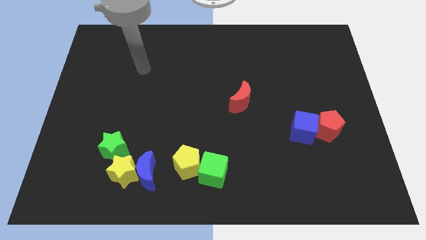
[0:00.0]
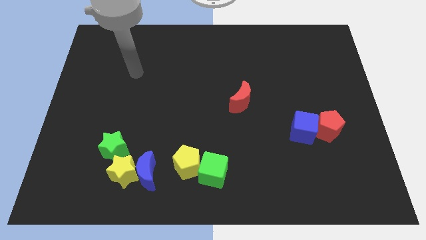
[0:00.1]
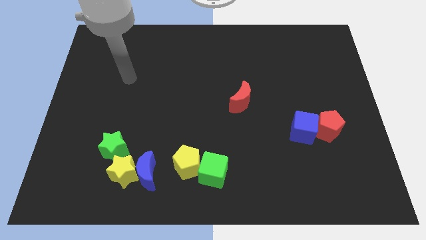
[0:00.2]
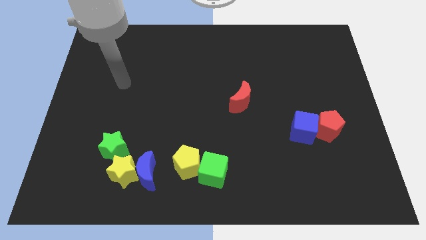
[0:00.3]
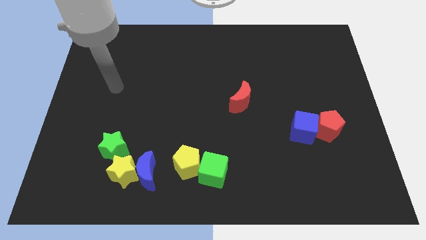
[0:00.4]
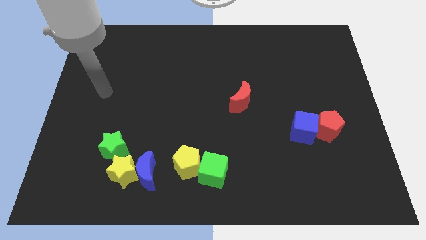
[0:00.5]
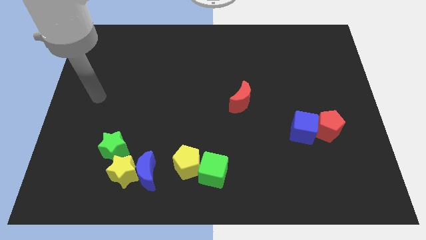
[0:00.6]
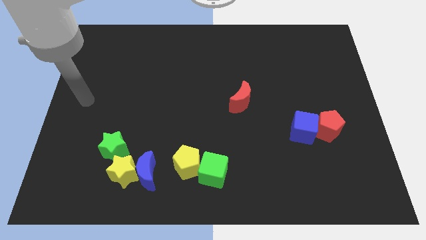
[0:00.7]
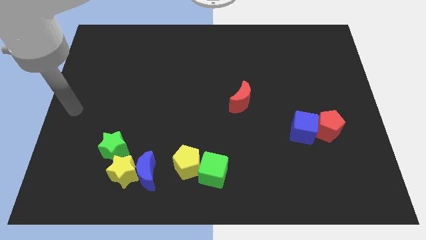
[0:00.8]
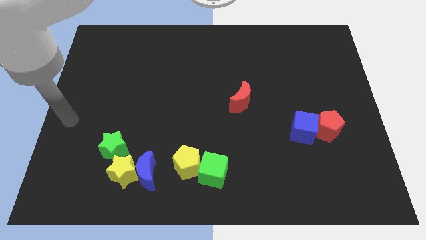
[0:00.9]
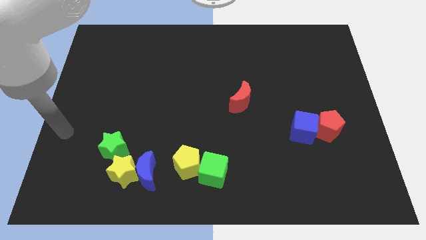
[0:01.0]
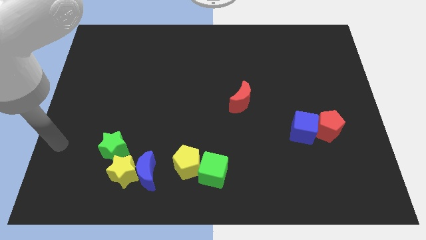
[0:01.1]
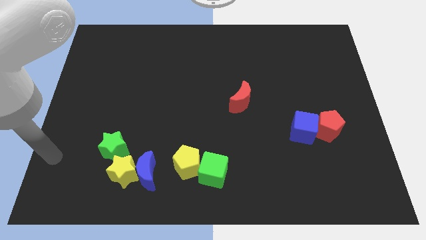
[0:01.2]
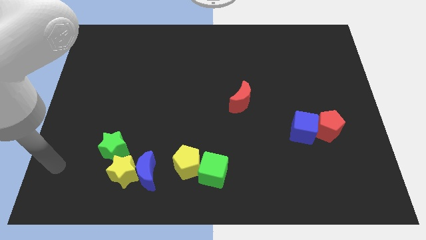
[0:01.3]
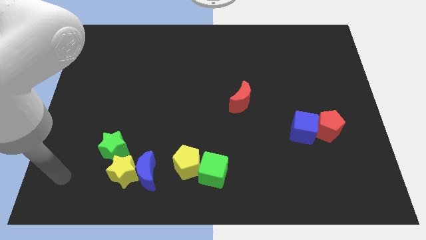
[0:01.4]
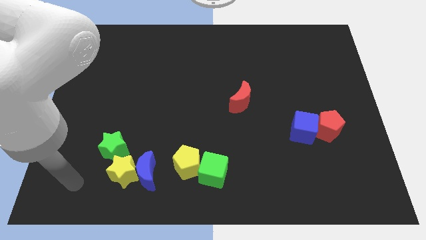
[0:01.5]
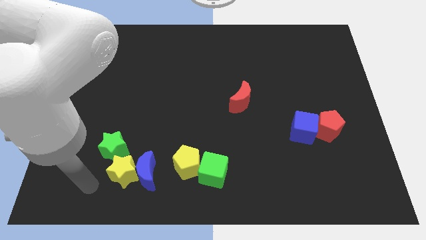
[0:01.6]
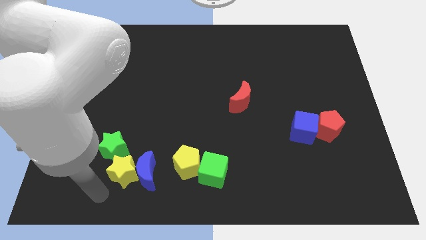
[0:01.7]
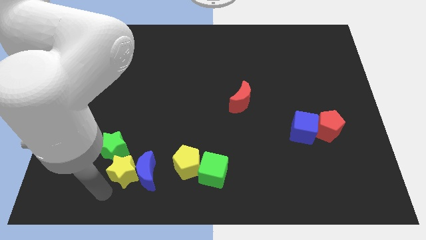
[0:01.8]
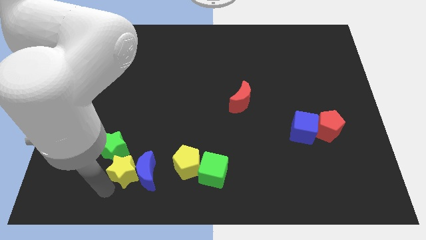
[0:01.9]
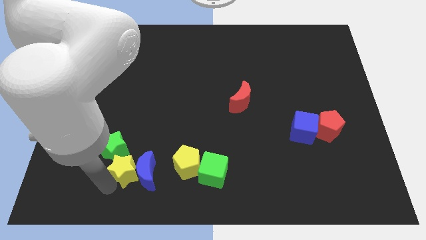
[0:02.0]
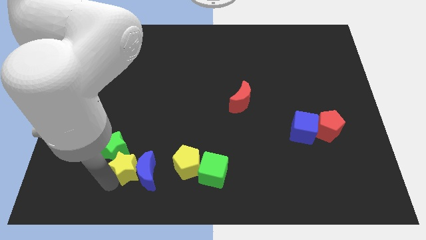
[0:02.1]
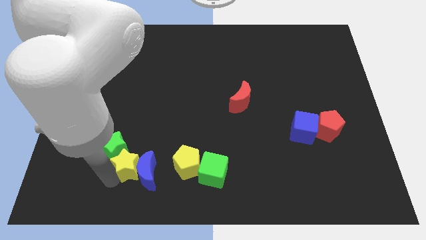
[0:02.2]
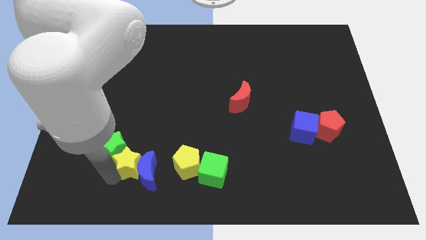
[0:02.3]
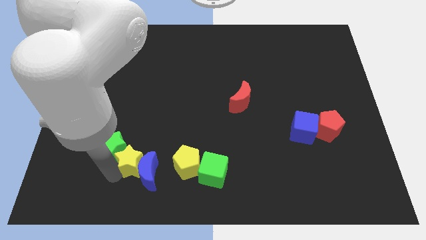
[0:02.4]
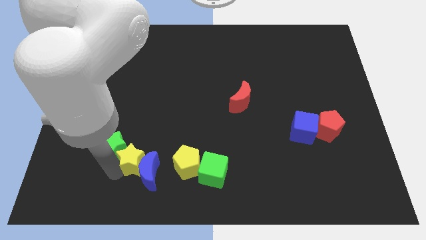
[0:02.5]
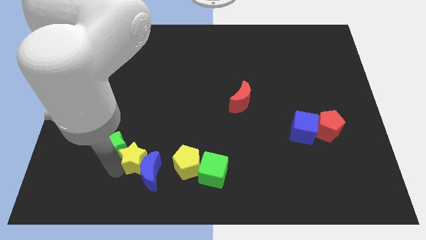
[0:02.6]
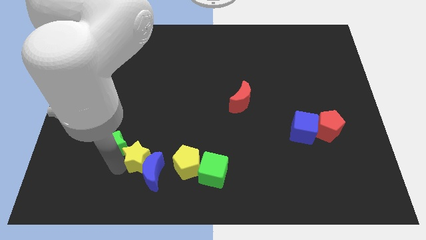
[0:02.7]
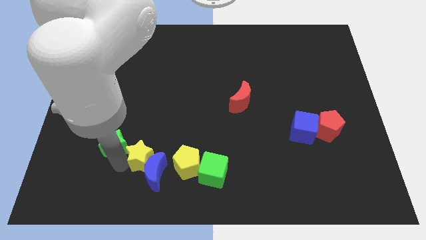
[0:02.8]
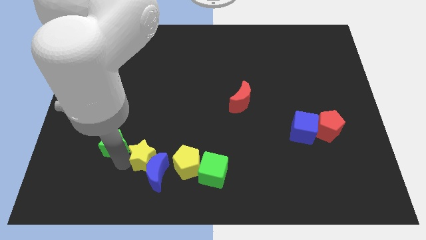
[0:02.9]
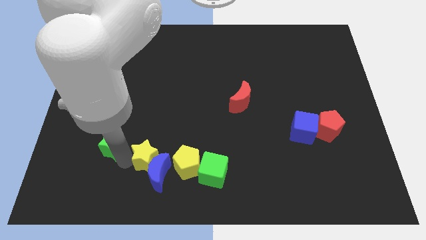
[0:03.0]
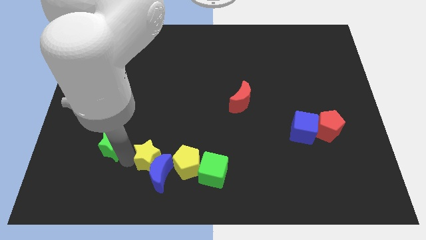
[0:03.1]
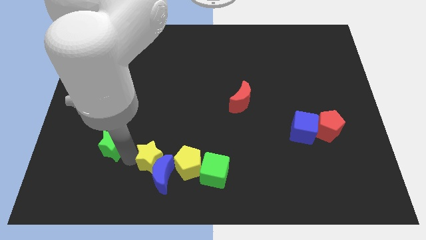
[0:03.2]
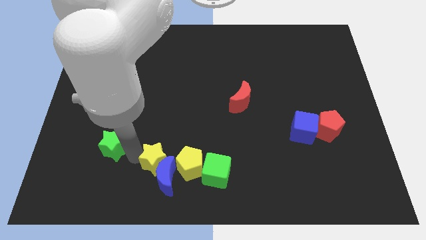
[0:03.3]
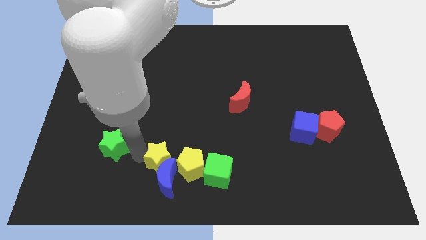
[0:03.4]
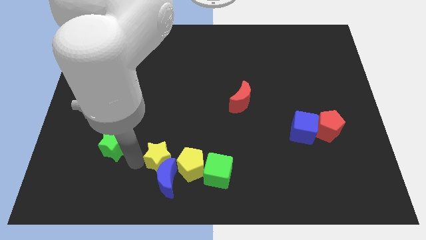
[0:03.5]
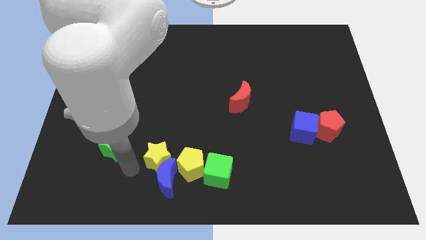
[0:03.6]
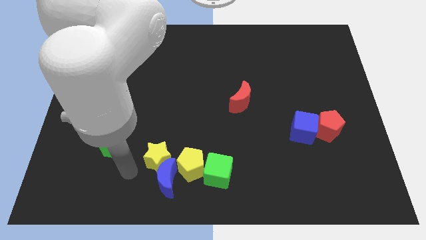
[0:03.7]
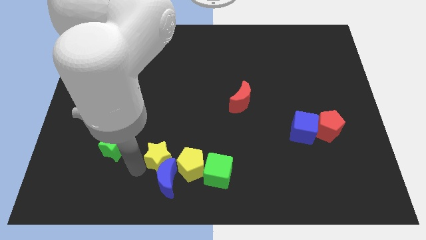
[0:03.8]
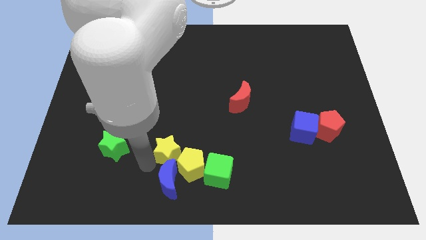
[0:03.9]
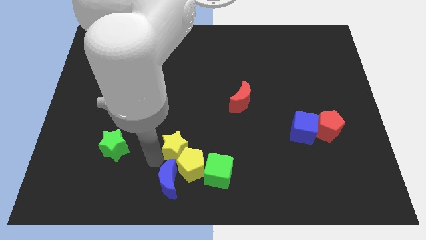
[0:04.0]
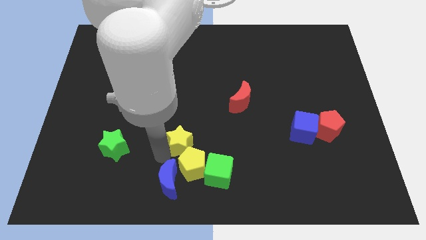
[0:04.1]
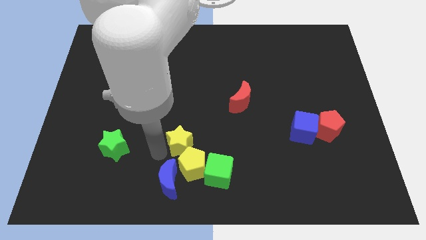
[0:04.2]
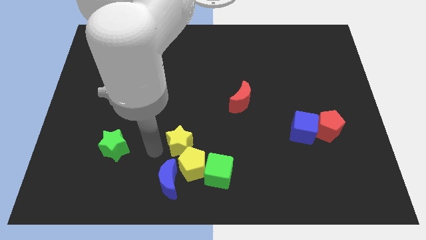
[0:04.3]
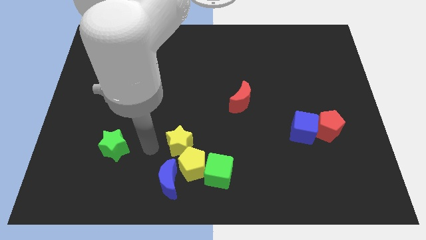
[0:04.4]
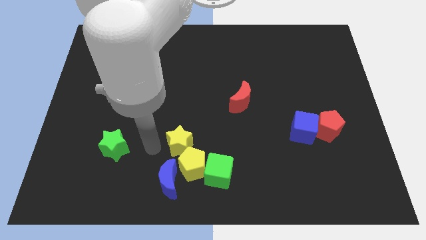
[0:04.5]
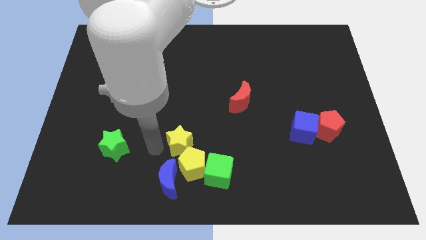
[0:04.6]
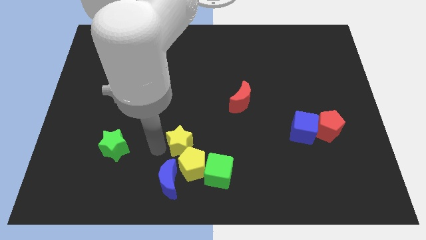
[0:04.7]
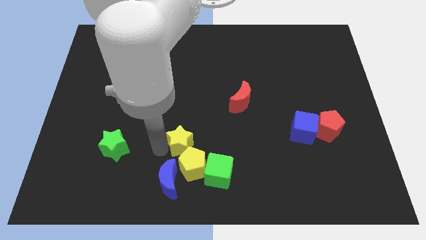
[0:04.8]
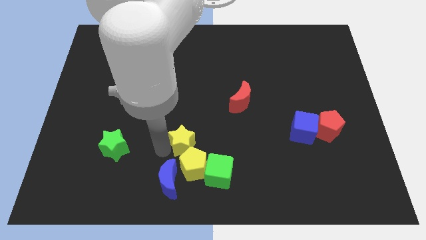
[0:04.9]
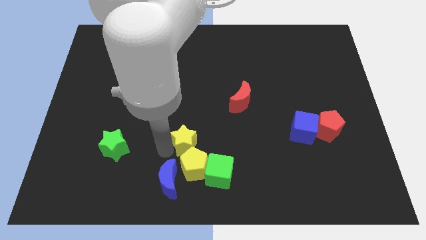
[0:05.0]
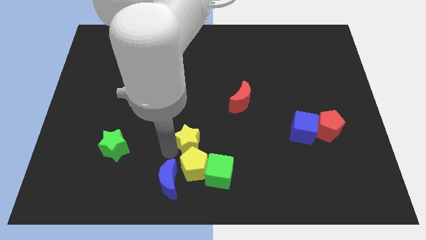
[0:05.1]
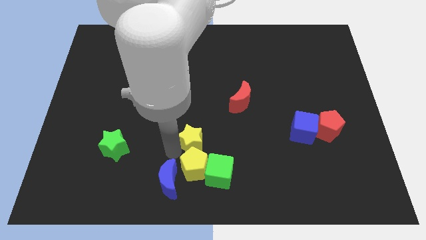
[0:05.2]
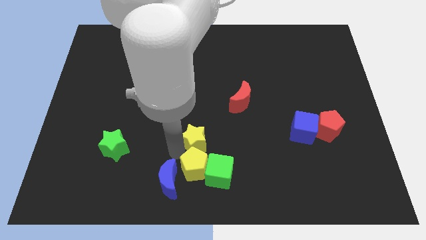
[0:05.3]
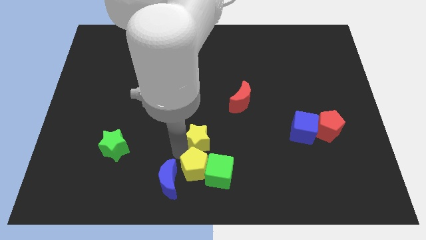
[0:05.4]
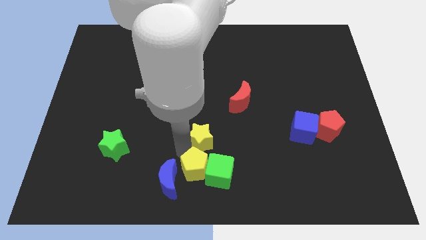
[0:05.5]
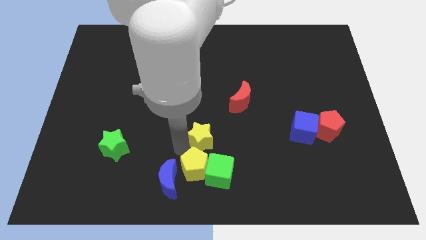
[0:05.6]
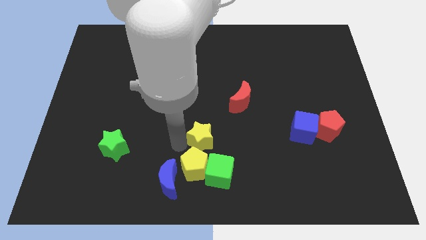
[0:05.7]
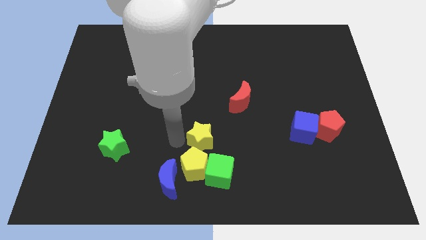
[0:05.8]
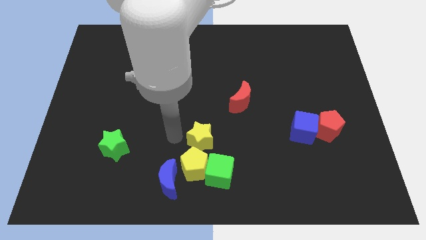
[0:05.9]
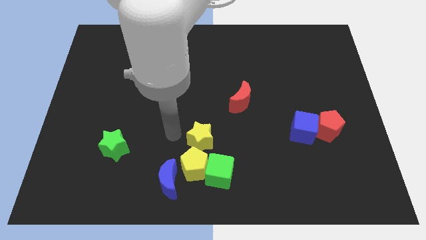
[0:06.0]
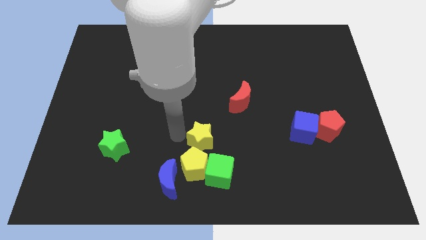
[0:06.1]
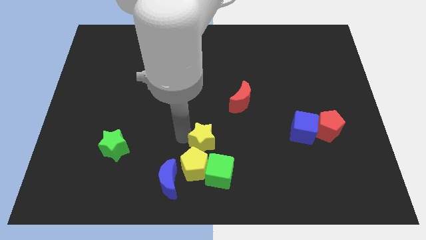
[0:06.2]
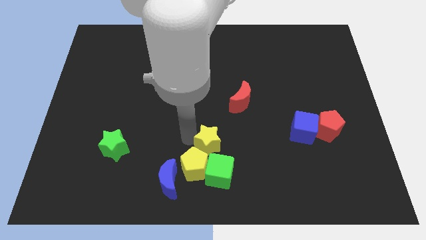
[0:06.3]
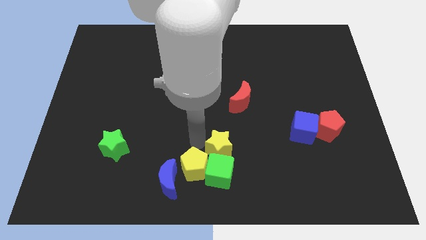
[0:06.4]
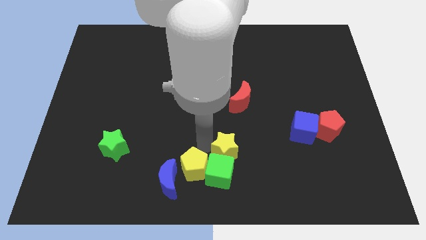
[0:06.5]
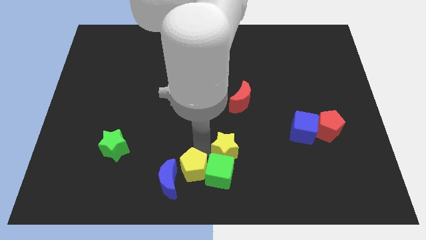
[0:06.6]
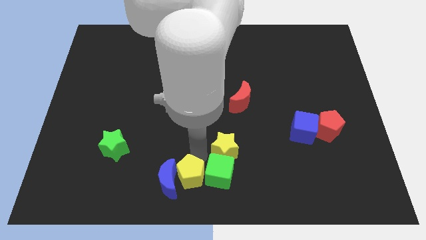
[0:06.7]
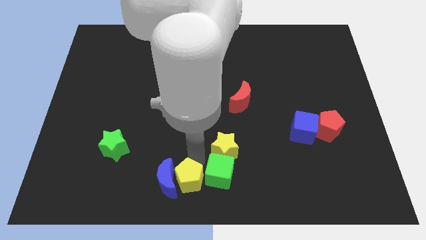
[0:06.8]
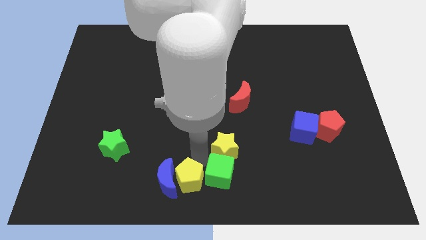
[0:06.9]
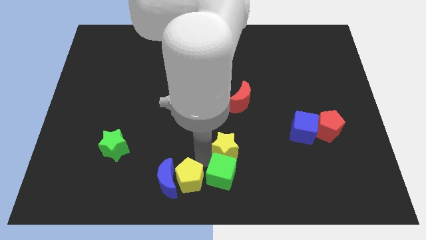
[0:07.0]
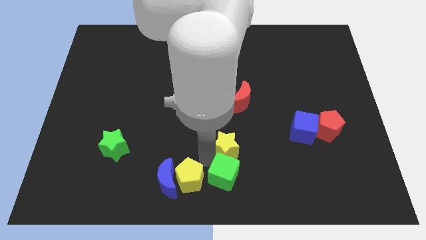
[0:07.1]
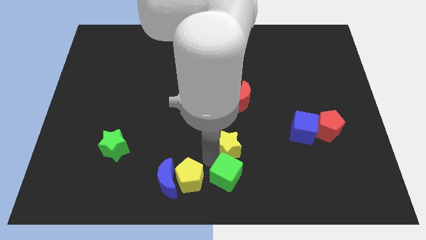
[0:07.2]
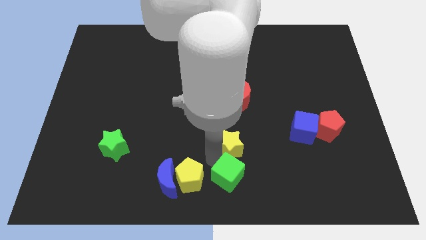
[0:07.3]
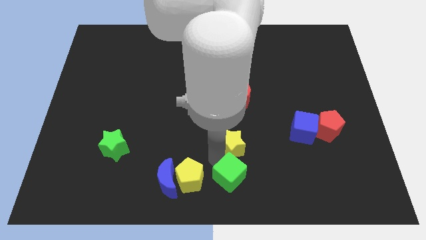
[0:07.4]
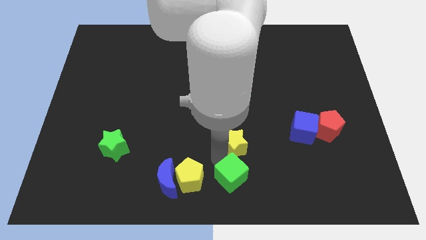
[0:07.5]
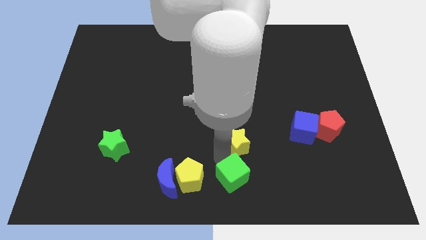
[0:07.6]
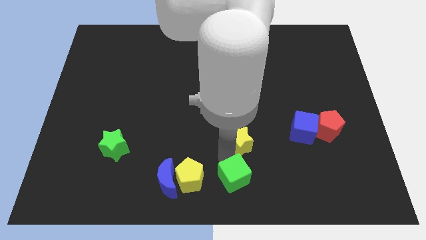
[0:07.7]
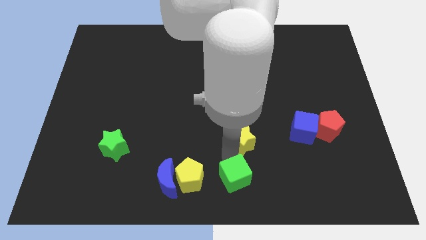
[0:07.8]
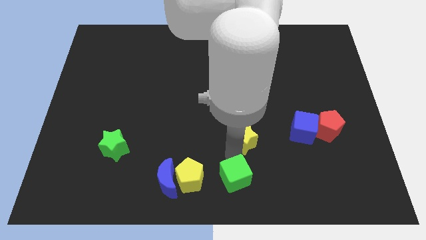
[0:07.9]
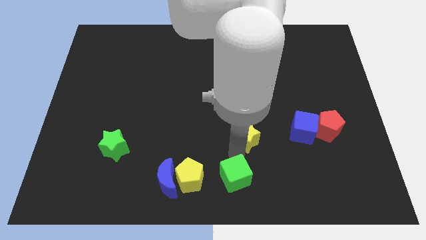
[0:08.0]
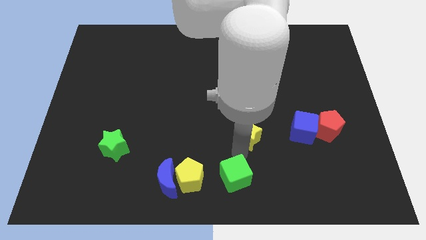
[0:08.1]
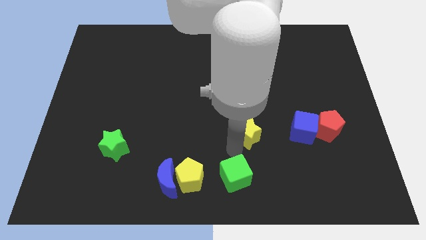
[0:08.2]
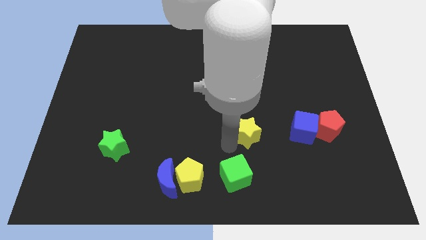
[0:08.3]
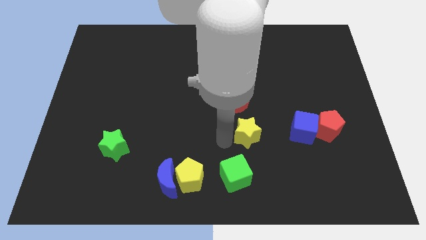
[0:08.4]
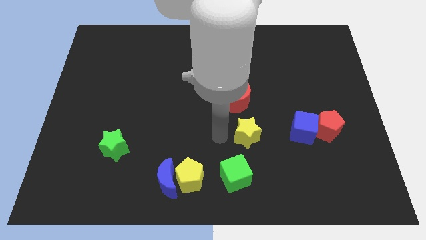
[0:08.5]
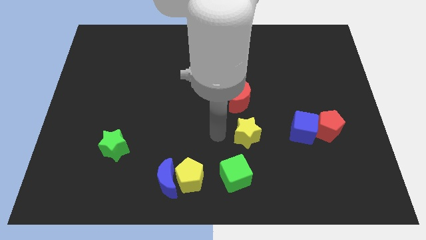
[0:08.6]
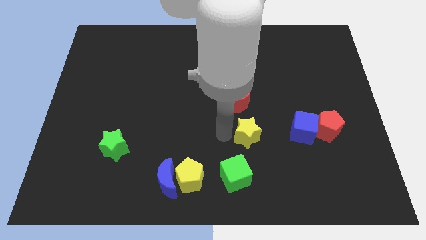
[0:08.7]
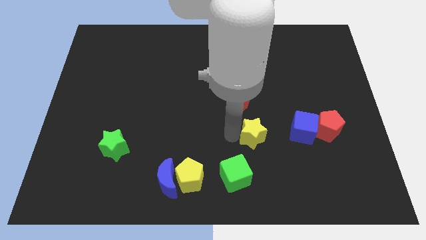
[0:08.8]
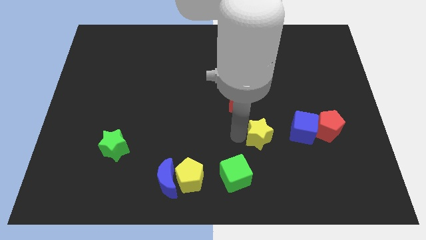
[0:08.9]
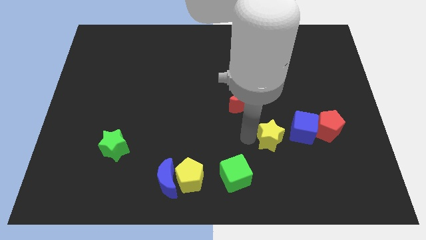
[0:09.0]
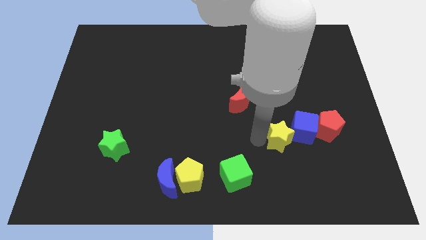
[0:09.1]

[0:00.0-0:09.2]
push the yellow star close to the blue cube
